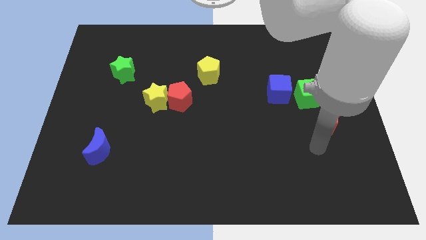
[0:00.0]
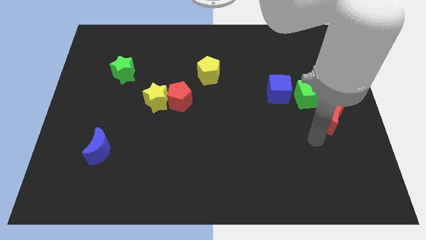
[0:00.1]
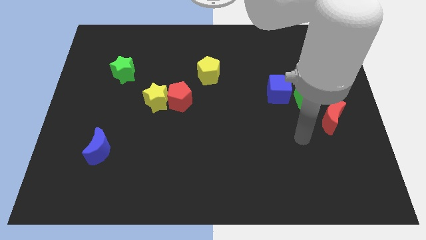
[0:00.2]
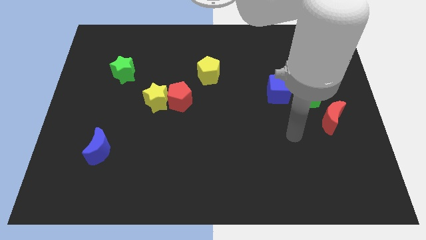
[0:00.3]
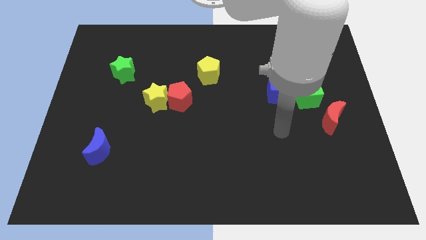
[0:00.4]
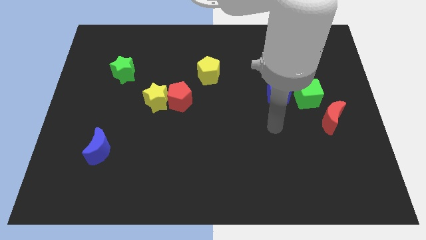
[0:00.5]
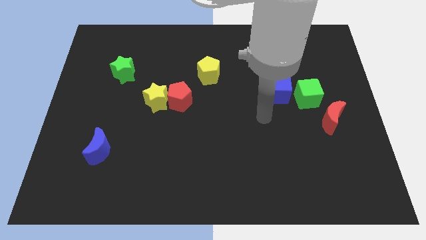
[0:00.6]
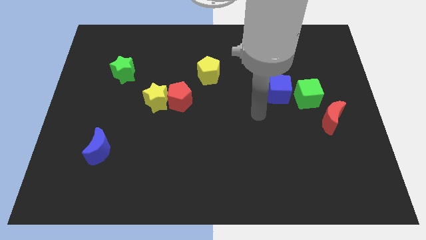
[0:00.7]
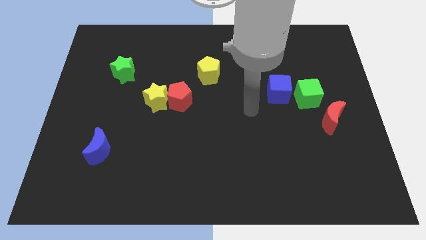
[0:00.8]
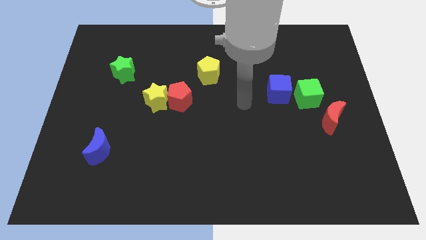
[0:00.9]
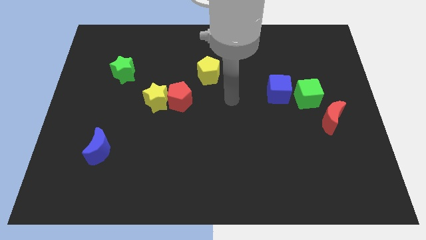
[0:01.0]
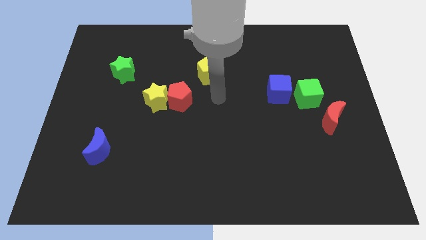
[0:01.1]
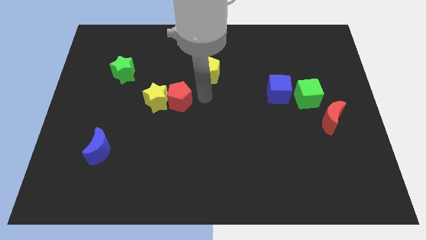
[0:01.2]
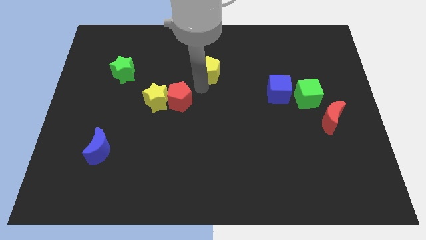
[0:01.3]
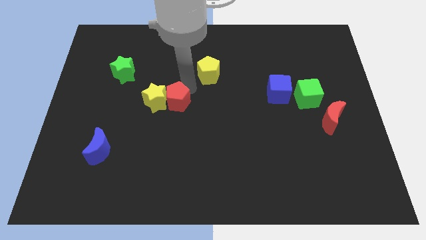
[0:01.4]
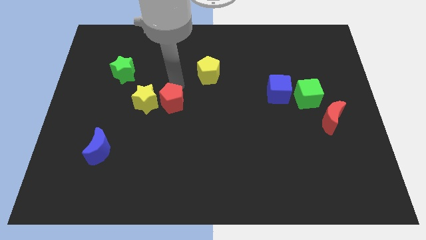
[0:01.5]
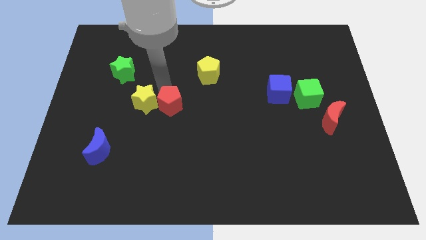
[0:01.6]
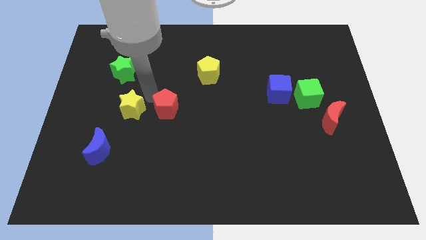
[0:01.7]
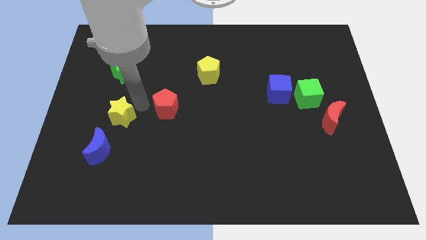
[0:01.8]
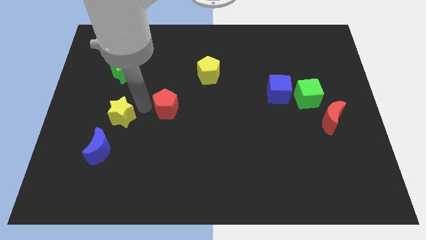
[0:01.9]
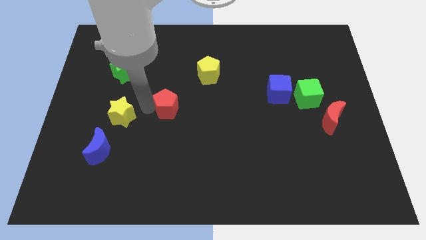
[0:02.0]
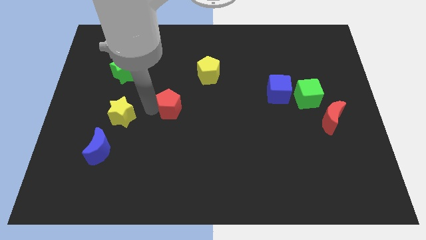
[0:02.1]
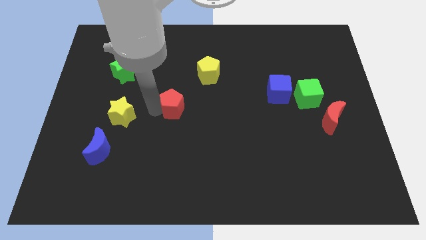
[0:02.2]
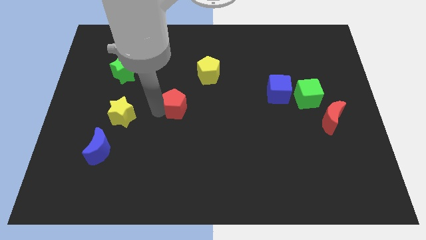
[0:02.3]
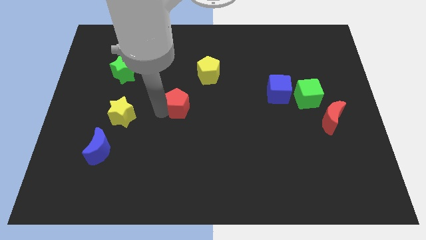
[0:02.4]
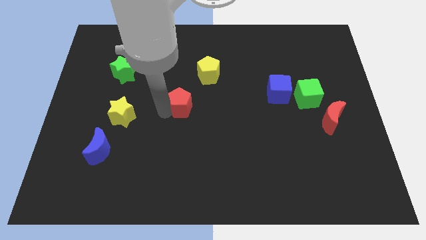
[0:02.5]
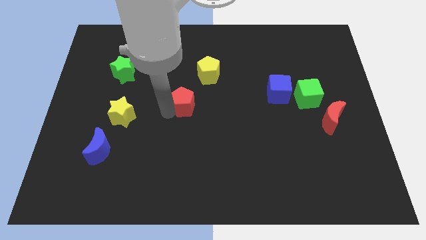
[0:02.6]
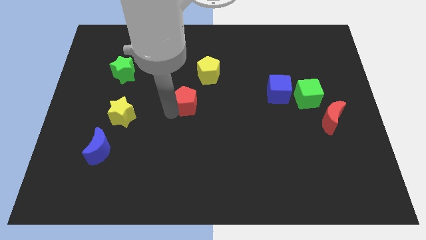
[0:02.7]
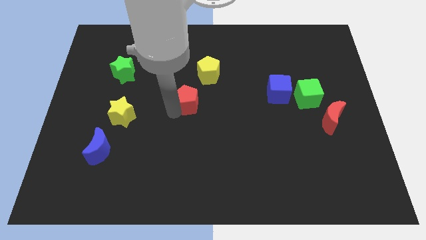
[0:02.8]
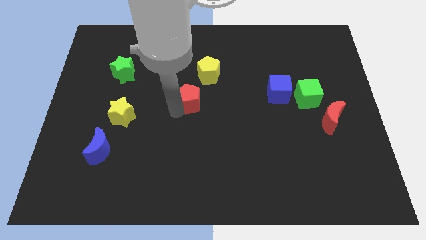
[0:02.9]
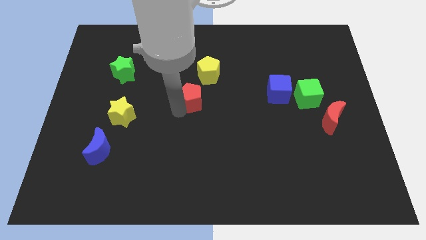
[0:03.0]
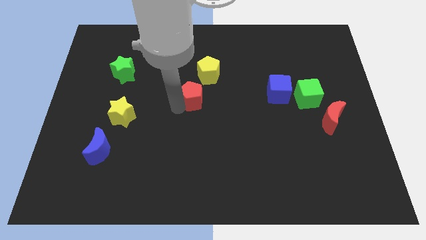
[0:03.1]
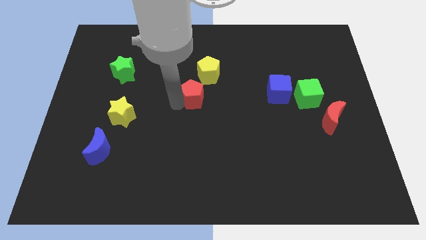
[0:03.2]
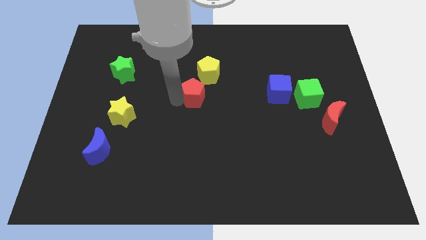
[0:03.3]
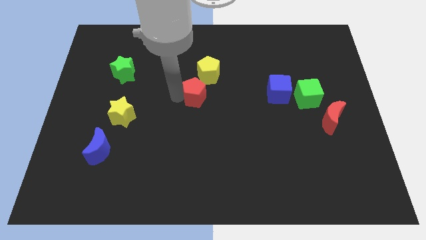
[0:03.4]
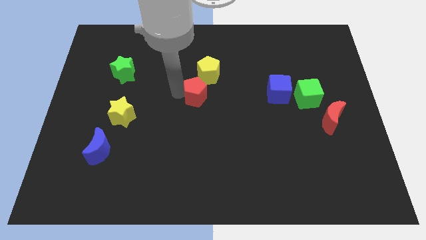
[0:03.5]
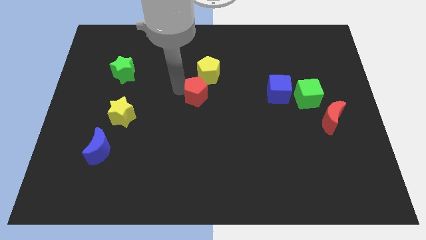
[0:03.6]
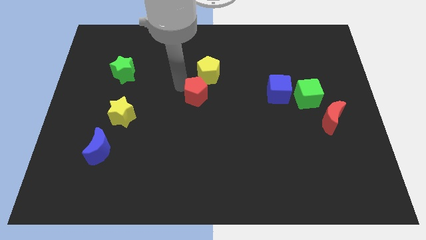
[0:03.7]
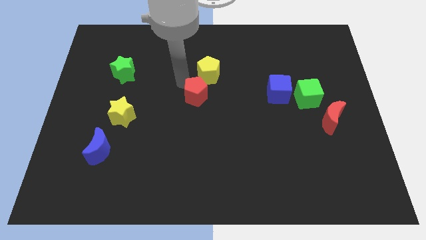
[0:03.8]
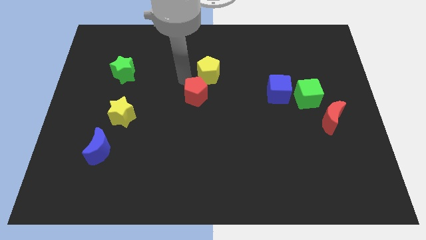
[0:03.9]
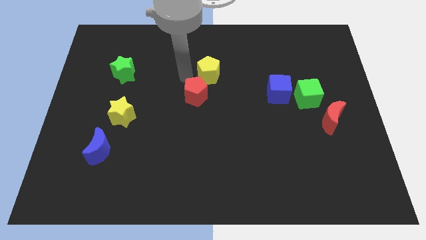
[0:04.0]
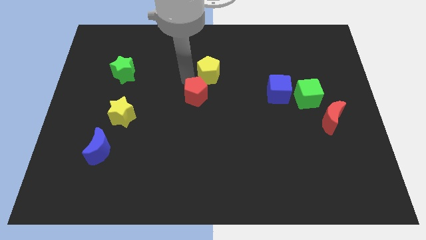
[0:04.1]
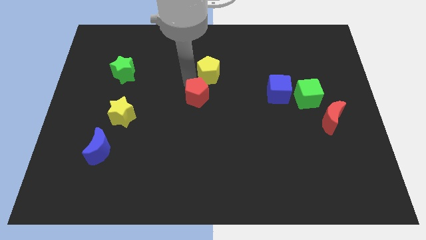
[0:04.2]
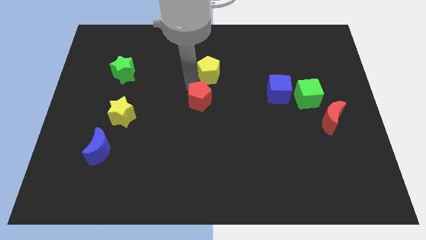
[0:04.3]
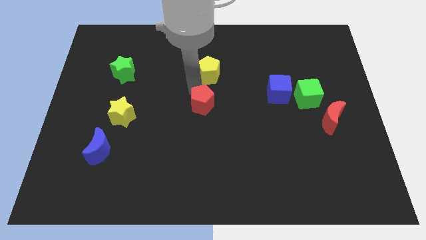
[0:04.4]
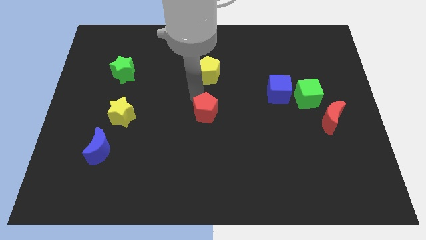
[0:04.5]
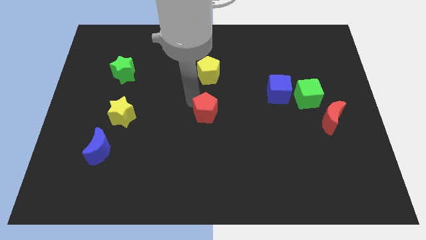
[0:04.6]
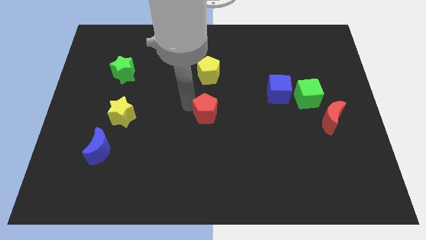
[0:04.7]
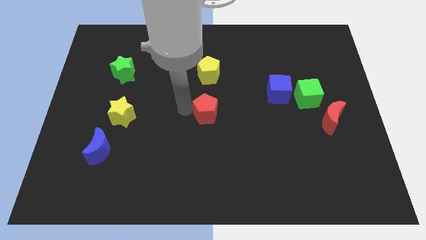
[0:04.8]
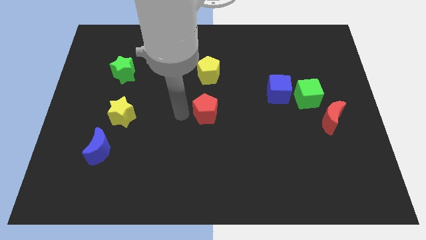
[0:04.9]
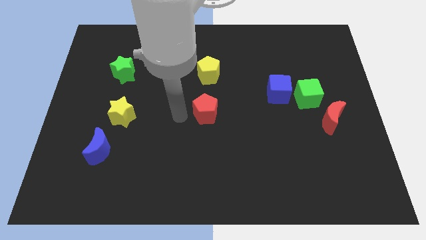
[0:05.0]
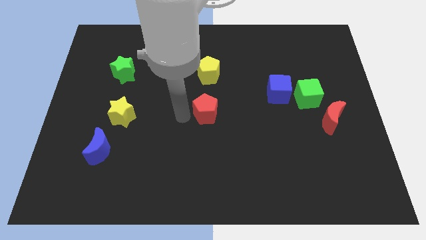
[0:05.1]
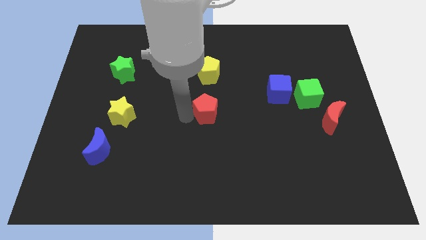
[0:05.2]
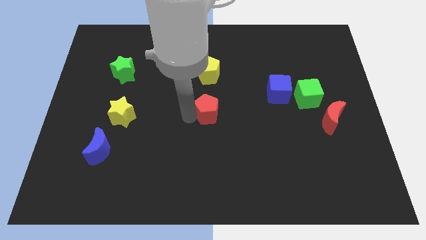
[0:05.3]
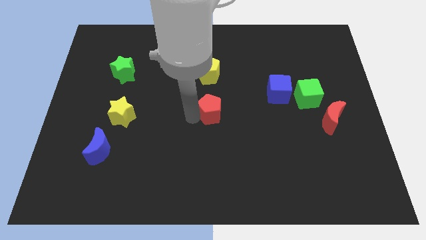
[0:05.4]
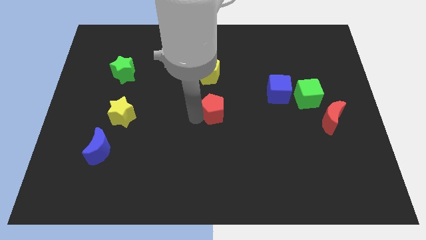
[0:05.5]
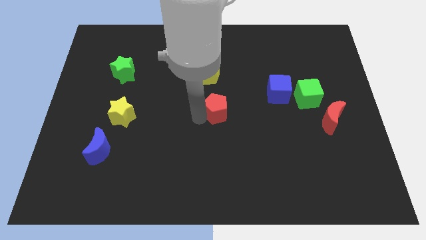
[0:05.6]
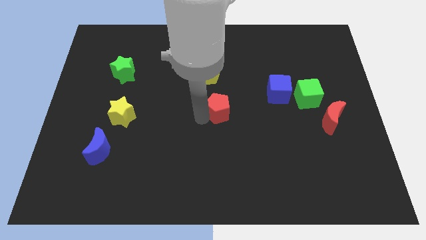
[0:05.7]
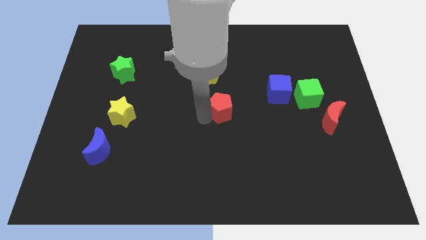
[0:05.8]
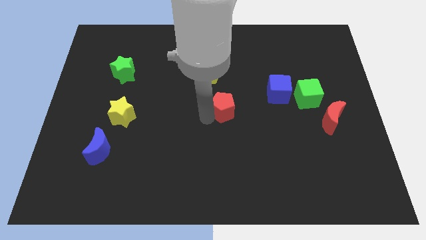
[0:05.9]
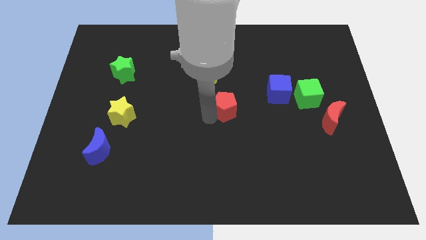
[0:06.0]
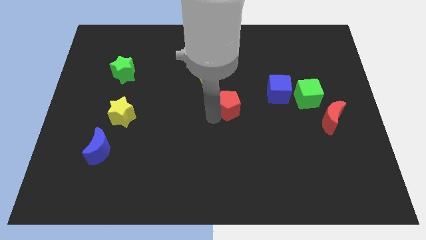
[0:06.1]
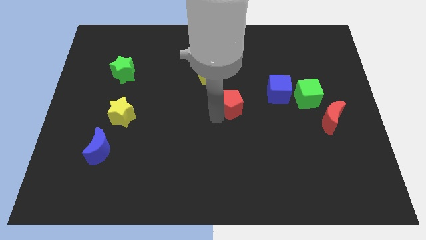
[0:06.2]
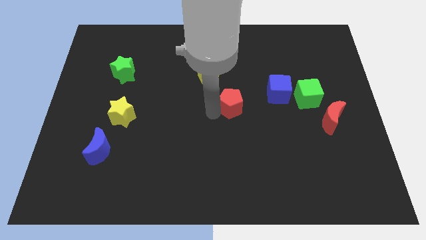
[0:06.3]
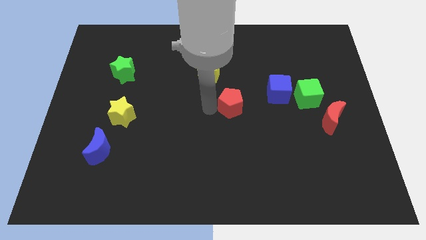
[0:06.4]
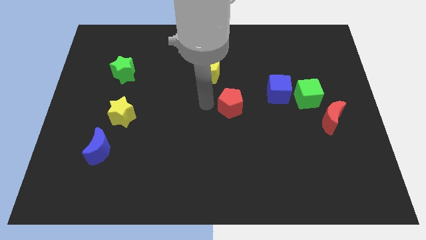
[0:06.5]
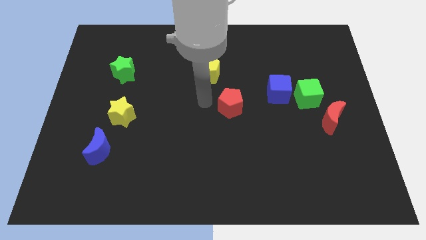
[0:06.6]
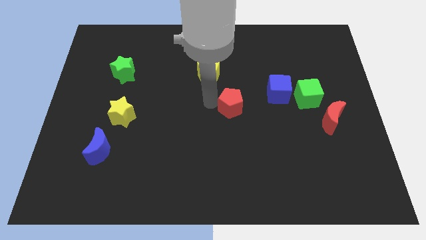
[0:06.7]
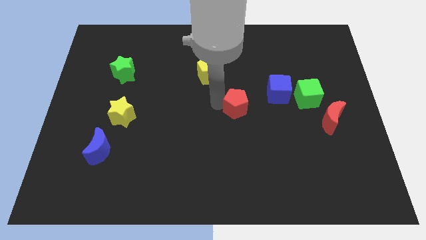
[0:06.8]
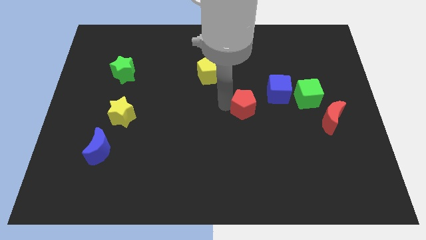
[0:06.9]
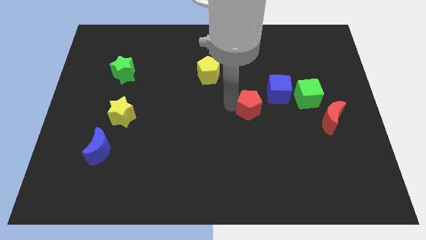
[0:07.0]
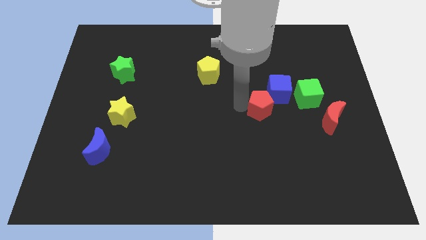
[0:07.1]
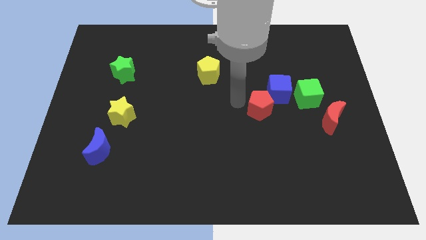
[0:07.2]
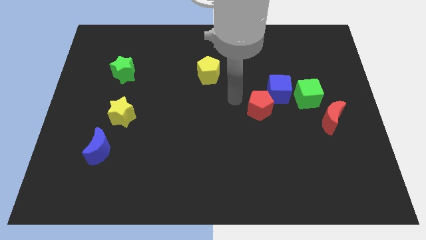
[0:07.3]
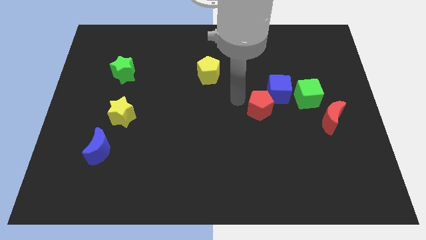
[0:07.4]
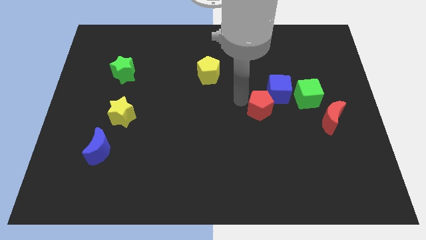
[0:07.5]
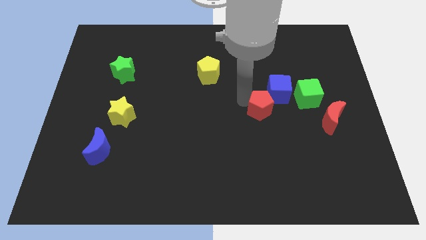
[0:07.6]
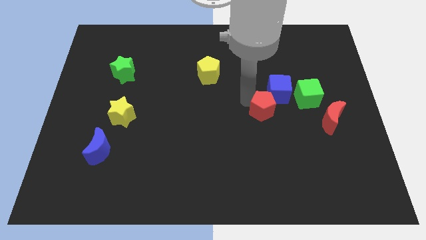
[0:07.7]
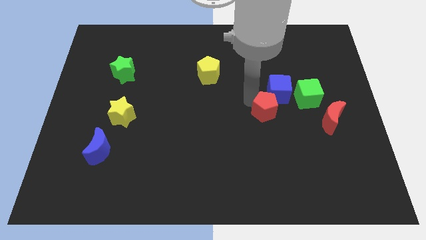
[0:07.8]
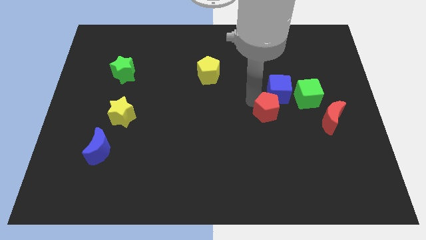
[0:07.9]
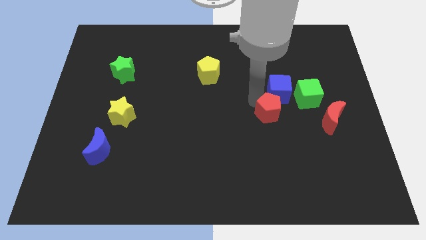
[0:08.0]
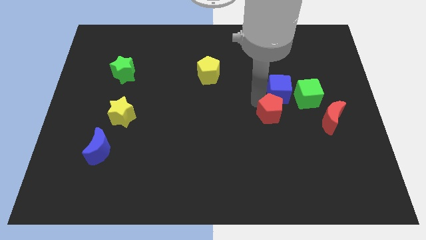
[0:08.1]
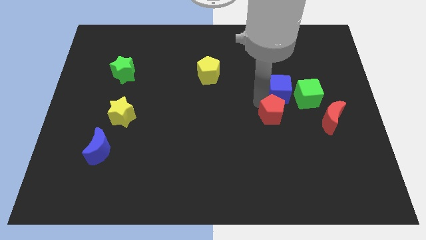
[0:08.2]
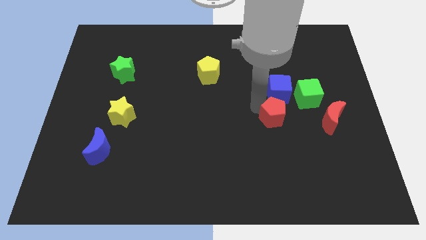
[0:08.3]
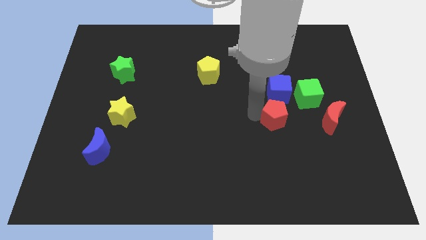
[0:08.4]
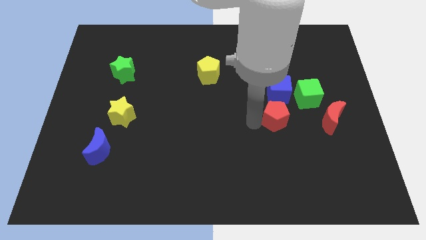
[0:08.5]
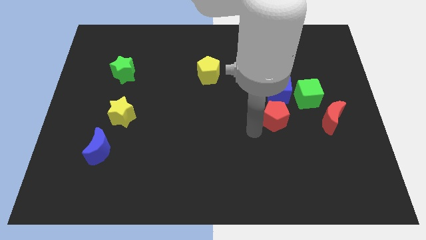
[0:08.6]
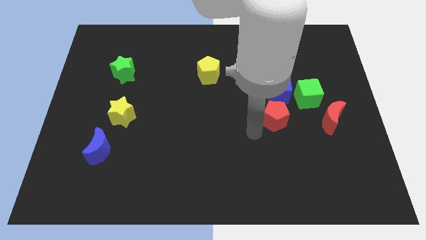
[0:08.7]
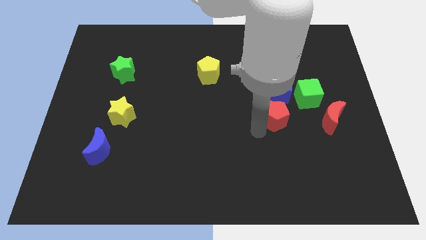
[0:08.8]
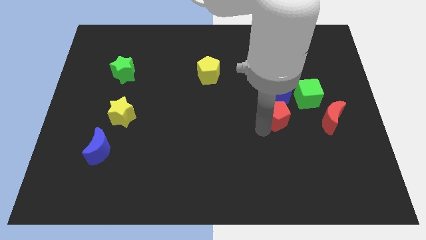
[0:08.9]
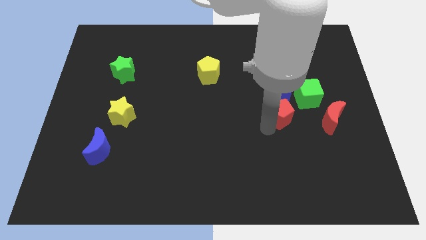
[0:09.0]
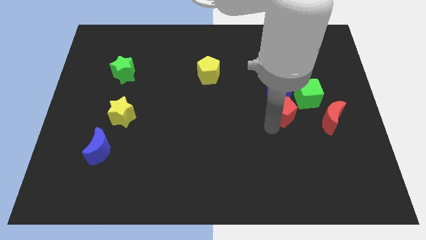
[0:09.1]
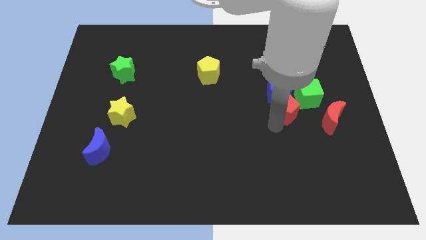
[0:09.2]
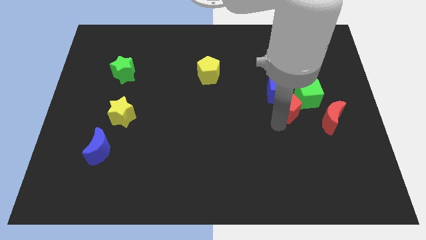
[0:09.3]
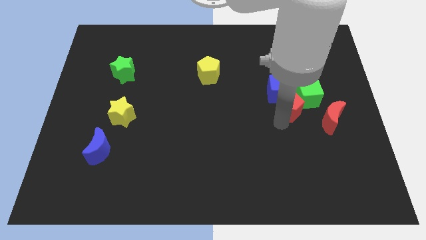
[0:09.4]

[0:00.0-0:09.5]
slide the red pentagon towards the green cube
